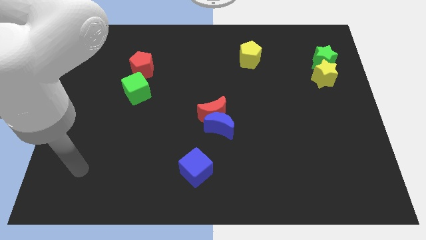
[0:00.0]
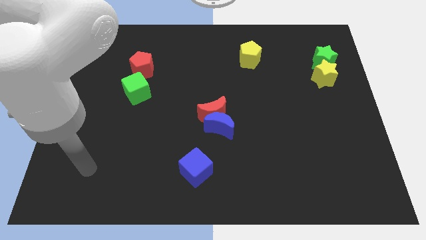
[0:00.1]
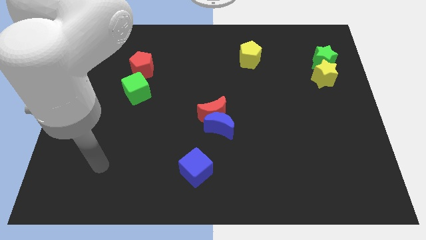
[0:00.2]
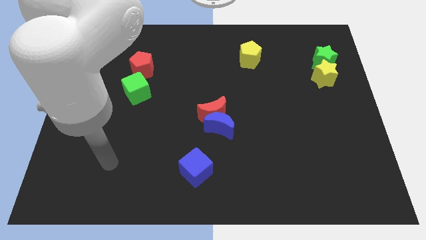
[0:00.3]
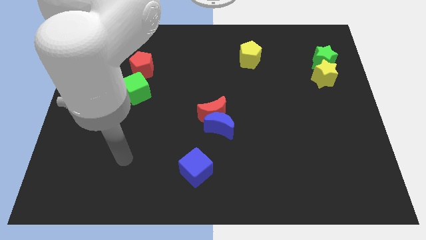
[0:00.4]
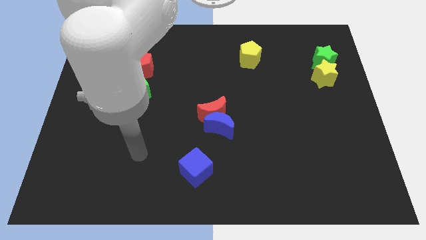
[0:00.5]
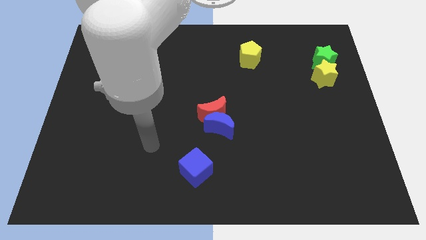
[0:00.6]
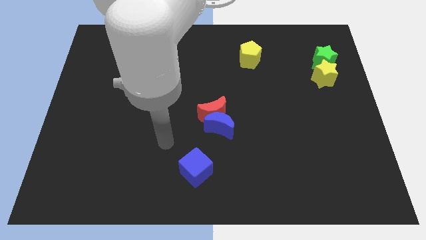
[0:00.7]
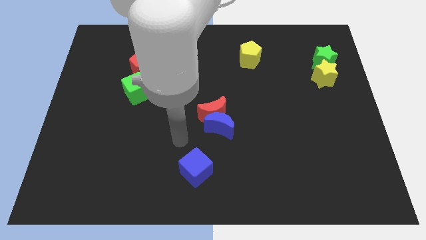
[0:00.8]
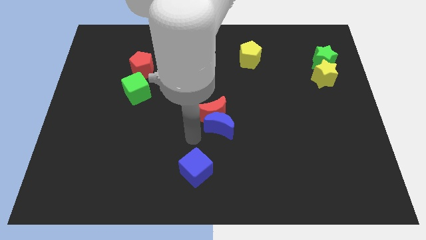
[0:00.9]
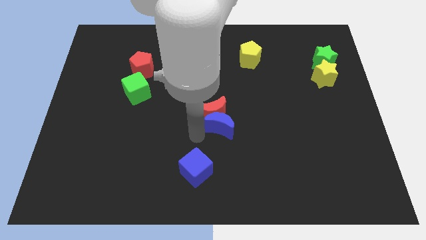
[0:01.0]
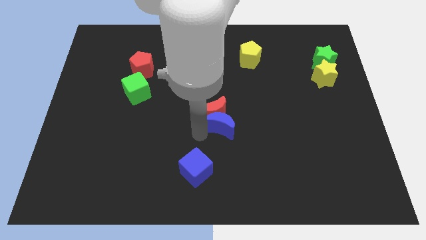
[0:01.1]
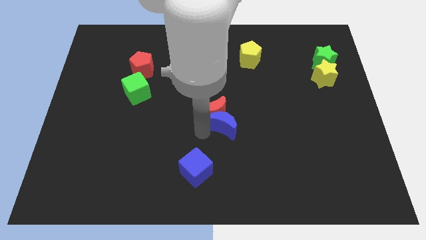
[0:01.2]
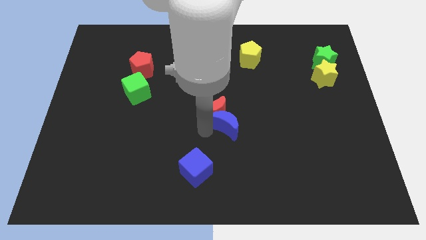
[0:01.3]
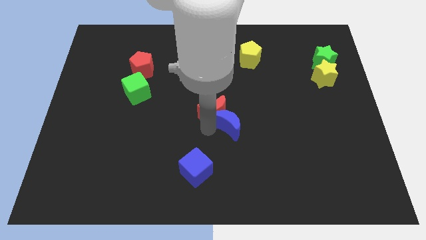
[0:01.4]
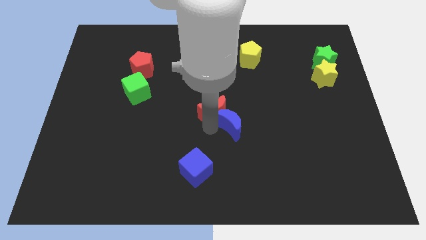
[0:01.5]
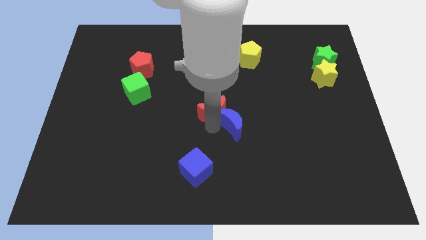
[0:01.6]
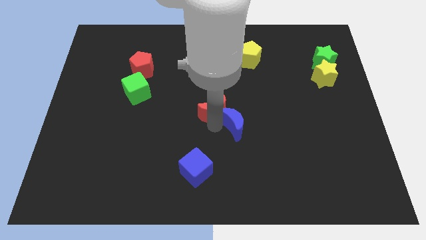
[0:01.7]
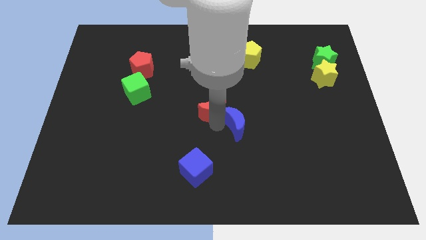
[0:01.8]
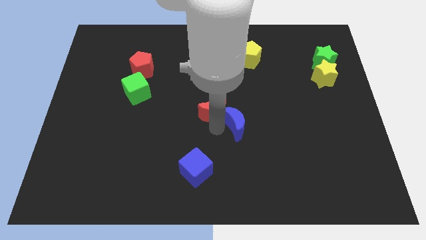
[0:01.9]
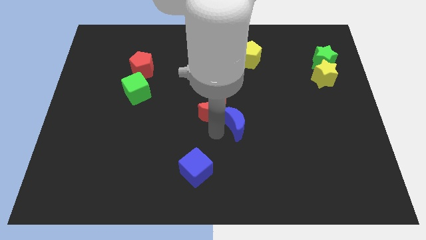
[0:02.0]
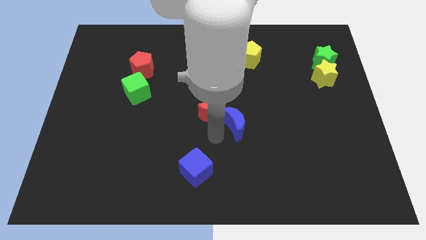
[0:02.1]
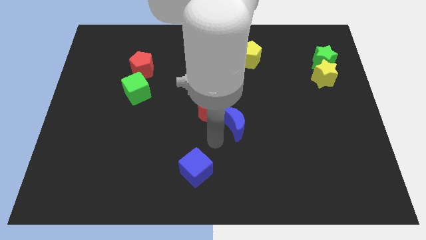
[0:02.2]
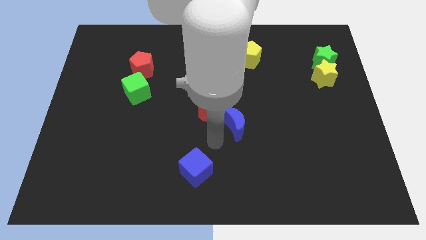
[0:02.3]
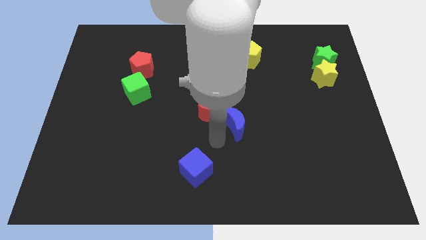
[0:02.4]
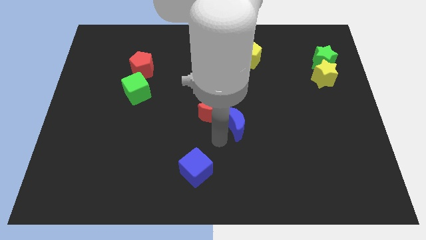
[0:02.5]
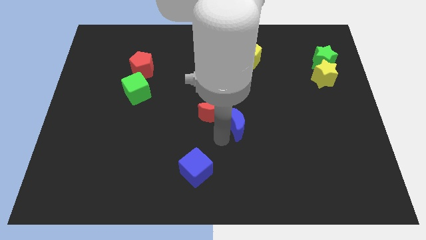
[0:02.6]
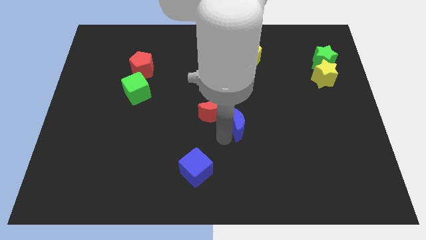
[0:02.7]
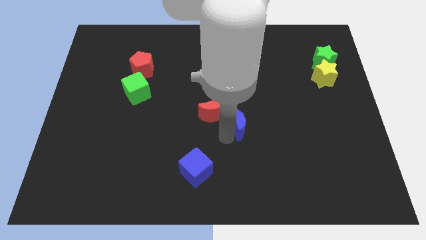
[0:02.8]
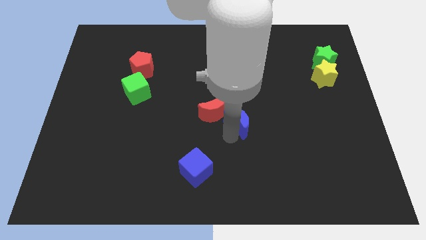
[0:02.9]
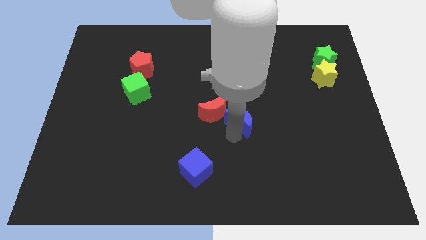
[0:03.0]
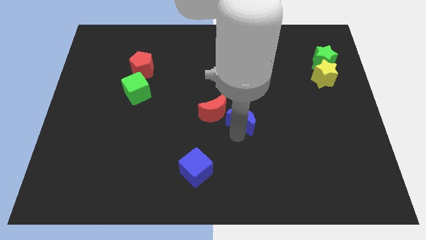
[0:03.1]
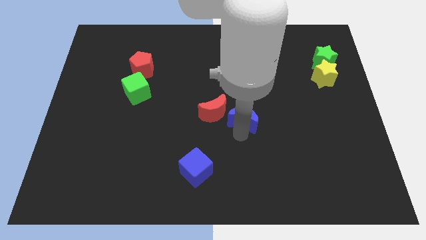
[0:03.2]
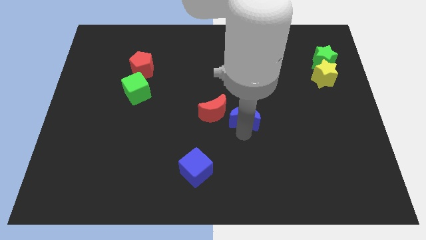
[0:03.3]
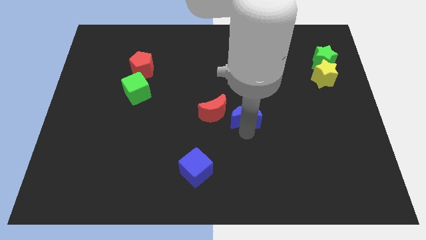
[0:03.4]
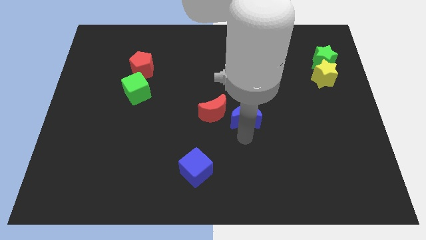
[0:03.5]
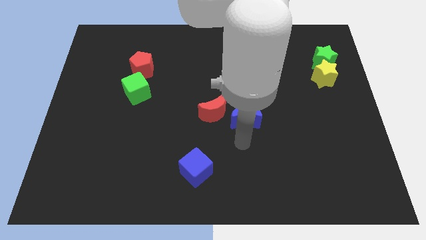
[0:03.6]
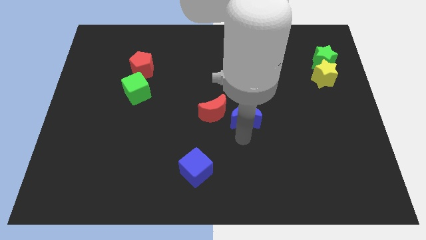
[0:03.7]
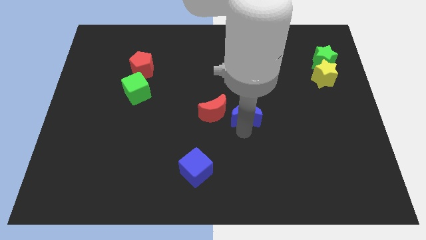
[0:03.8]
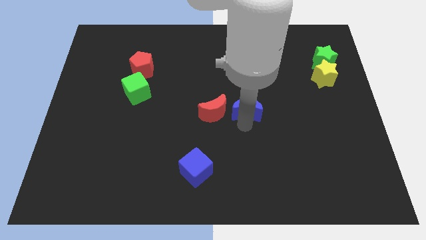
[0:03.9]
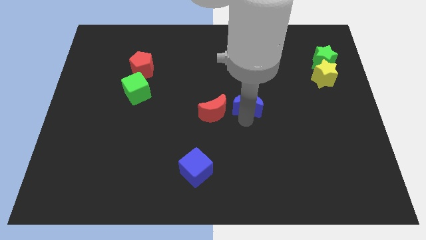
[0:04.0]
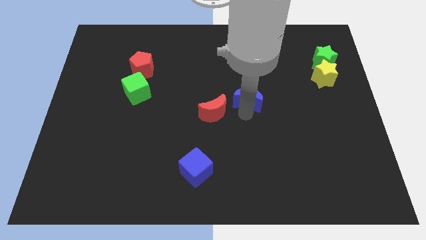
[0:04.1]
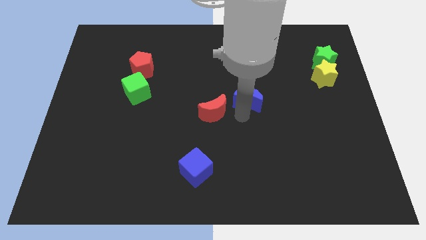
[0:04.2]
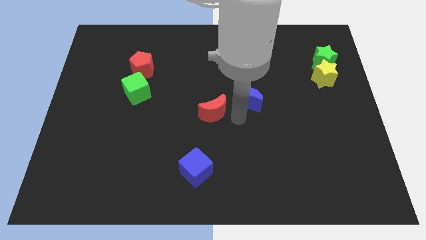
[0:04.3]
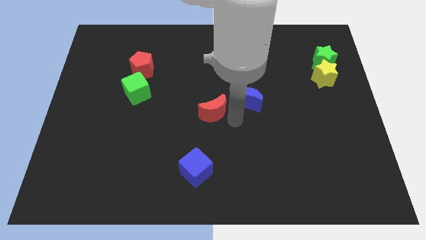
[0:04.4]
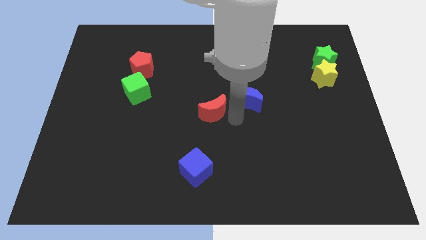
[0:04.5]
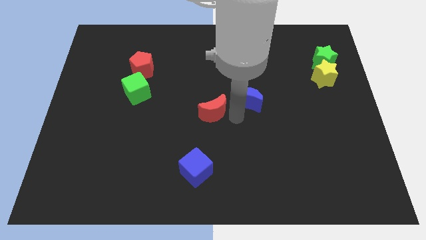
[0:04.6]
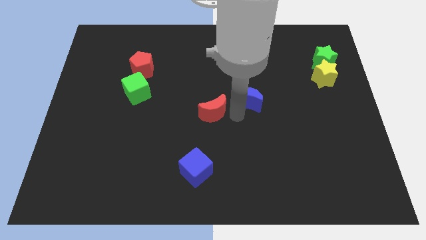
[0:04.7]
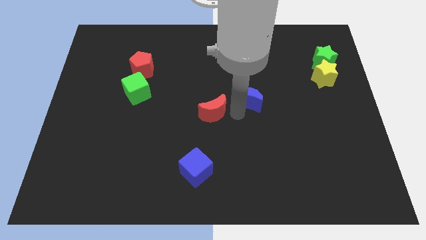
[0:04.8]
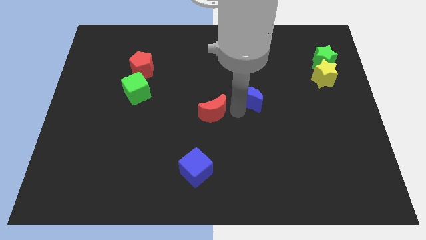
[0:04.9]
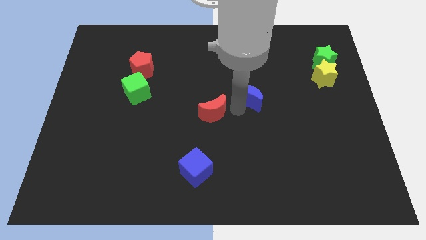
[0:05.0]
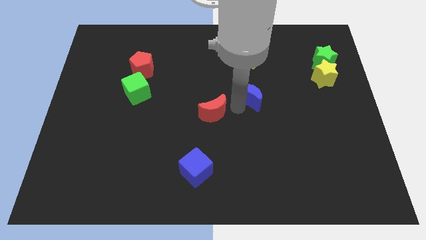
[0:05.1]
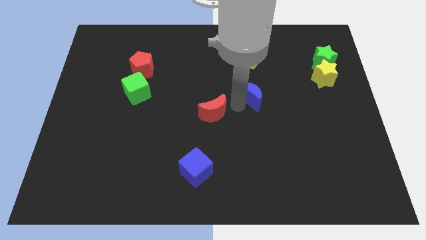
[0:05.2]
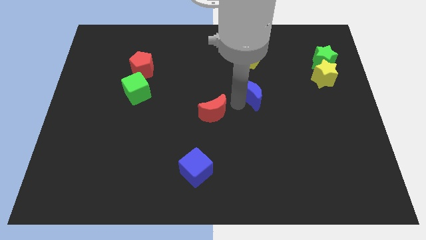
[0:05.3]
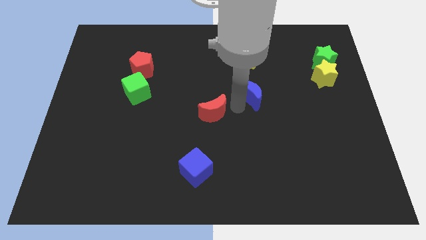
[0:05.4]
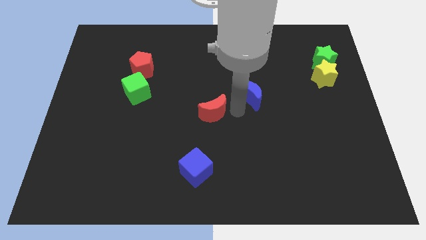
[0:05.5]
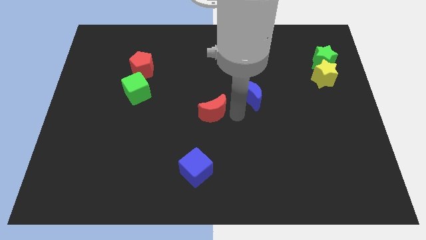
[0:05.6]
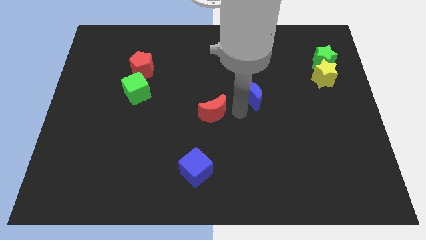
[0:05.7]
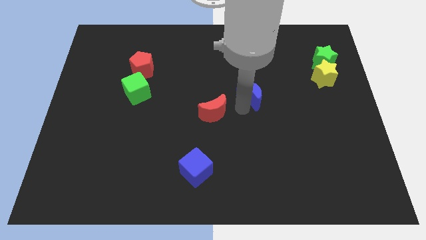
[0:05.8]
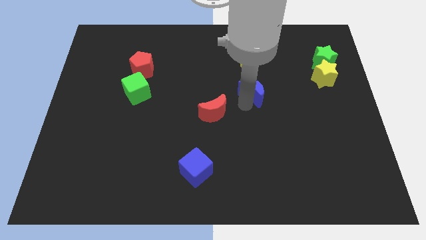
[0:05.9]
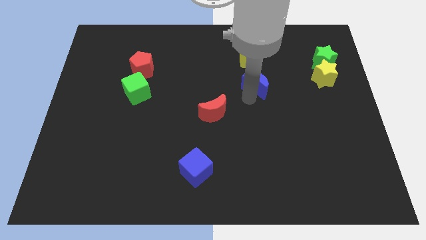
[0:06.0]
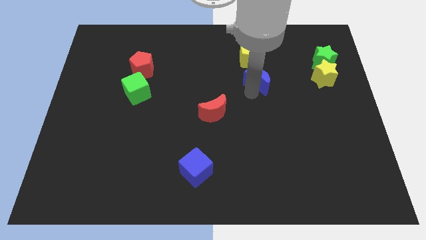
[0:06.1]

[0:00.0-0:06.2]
push the blue moon diagonally down and to the right of the yellow pentagon

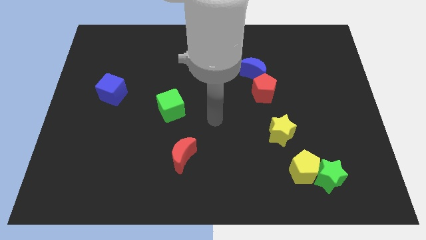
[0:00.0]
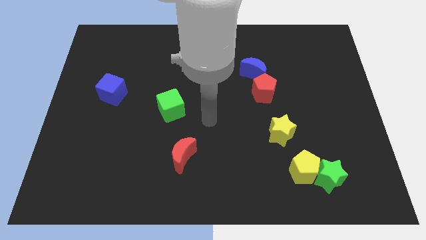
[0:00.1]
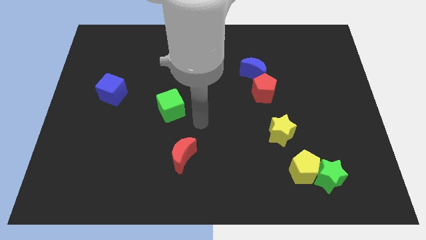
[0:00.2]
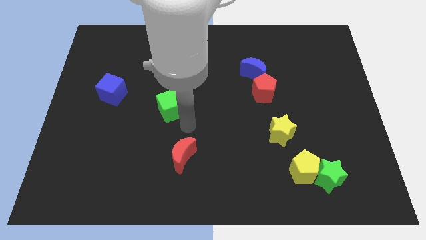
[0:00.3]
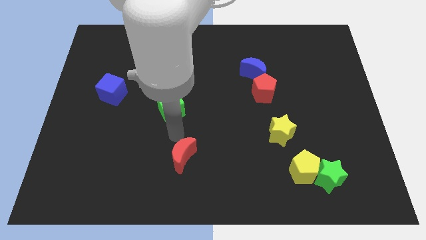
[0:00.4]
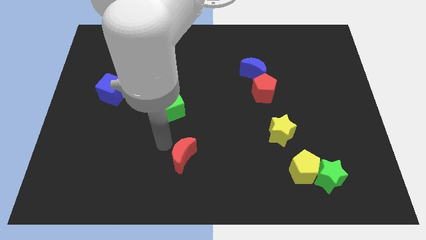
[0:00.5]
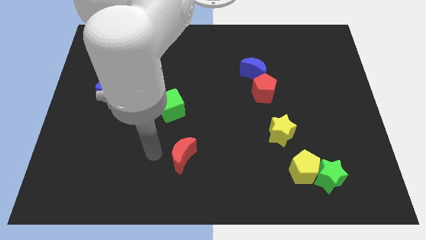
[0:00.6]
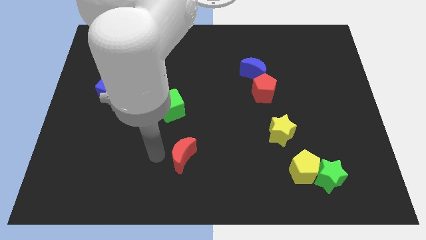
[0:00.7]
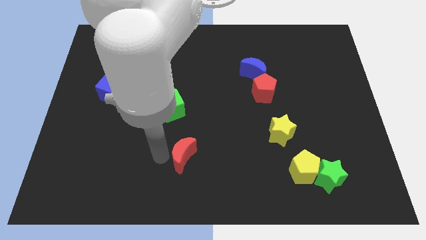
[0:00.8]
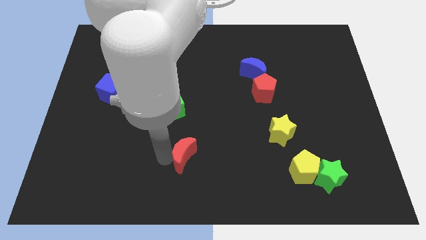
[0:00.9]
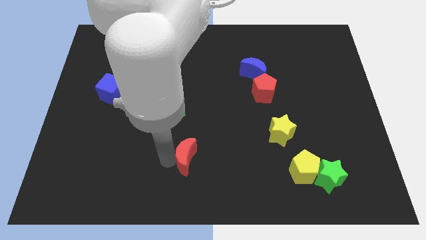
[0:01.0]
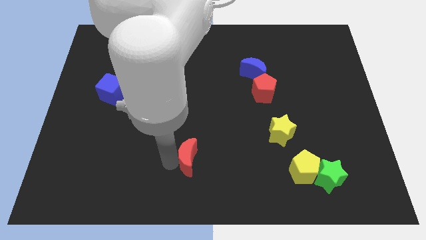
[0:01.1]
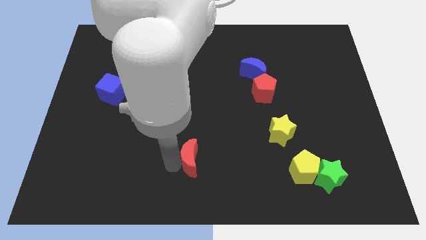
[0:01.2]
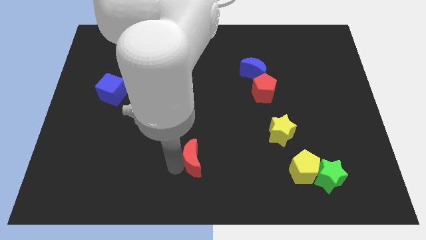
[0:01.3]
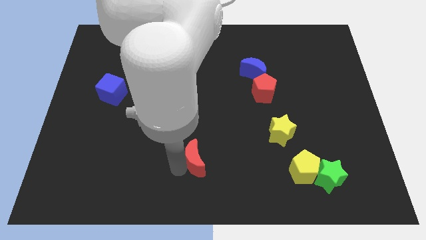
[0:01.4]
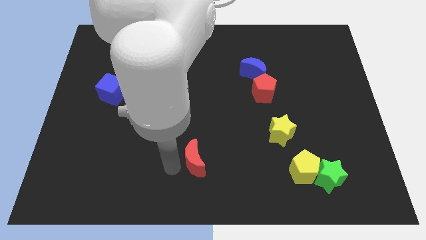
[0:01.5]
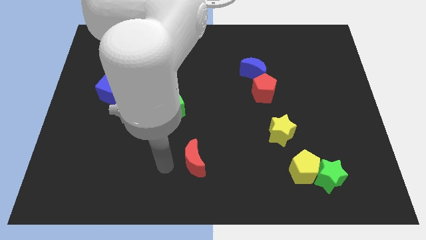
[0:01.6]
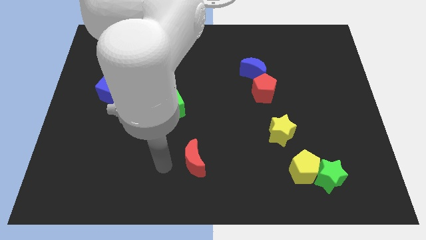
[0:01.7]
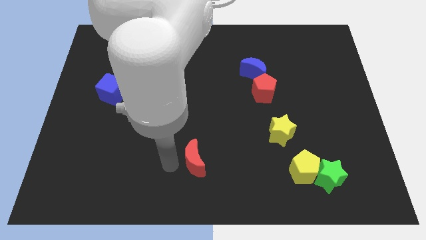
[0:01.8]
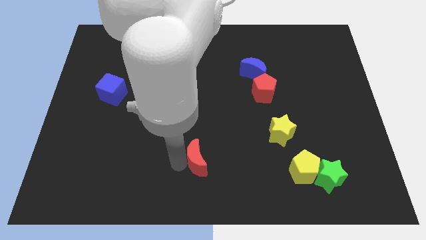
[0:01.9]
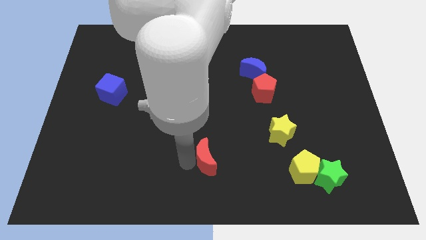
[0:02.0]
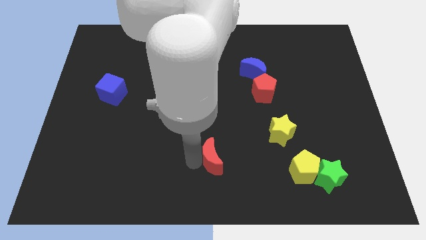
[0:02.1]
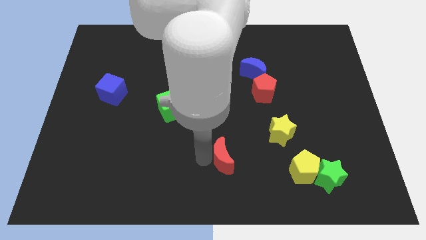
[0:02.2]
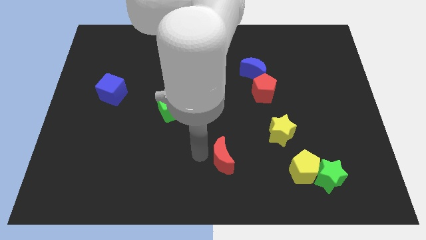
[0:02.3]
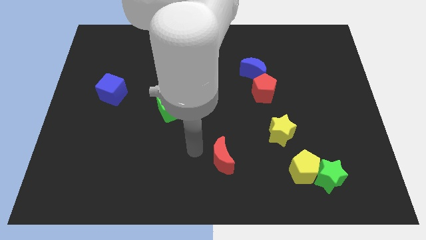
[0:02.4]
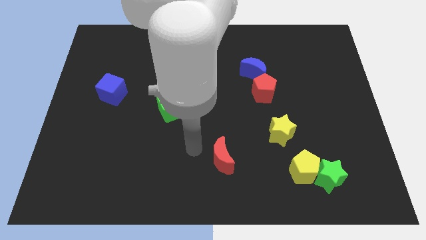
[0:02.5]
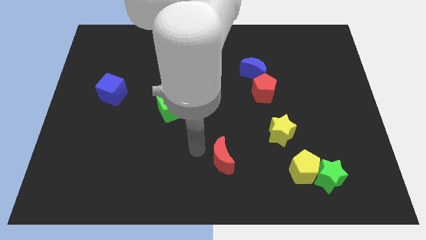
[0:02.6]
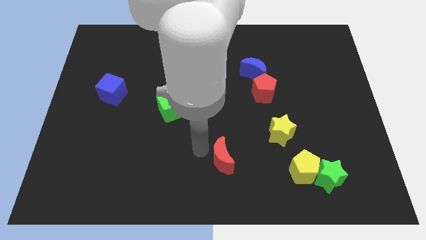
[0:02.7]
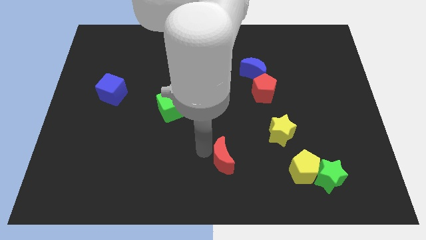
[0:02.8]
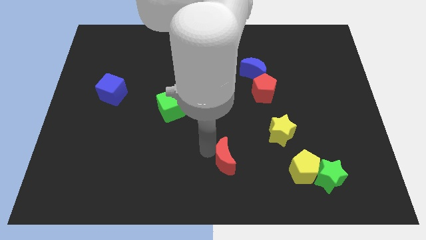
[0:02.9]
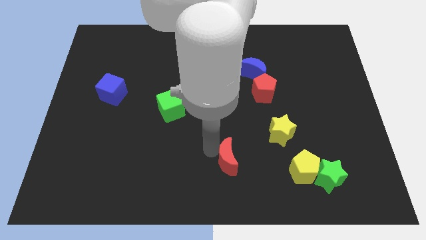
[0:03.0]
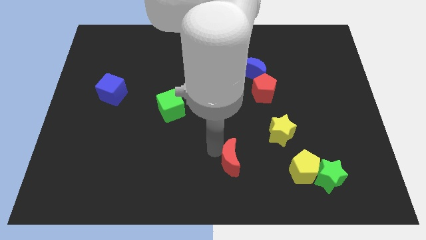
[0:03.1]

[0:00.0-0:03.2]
slide the red moon just left of the yellow pentagon
